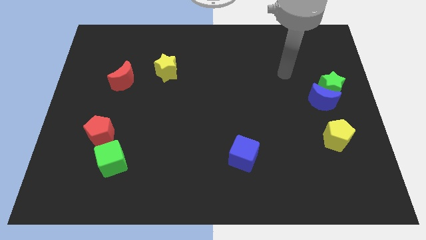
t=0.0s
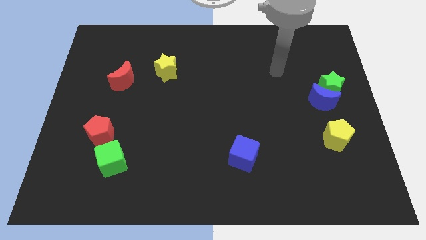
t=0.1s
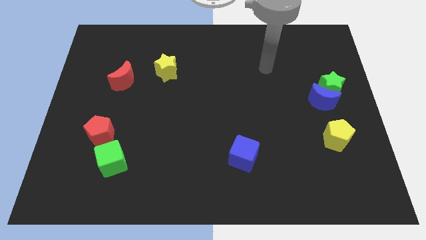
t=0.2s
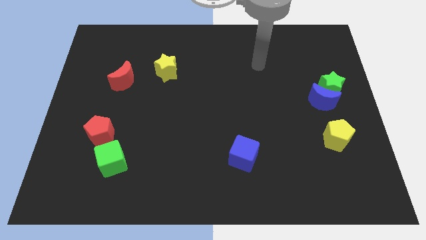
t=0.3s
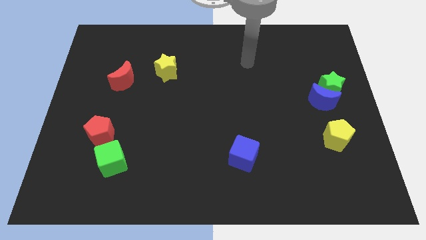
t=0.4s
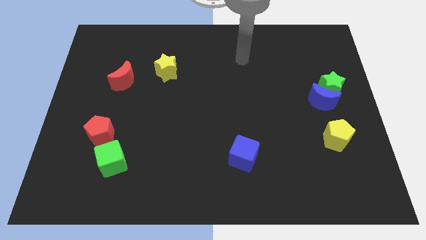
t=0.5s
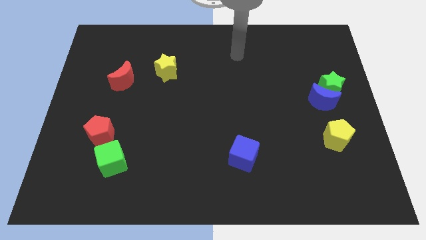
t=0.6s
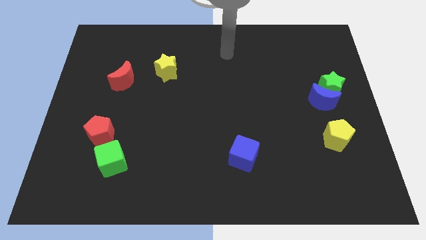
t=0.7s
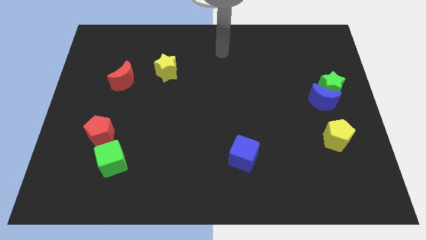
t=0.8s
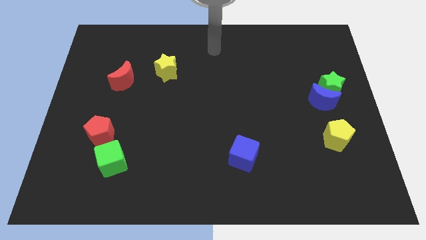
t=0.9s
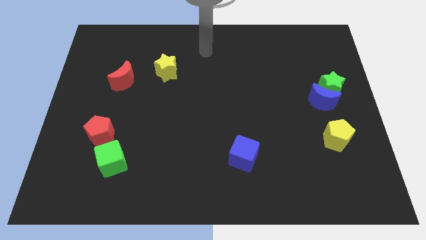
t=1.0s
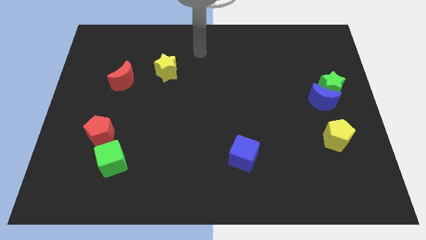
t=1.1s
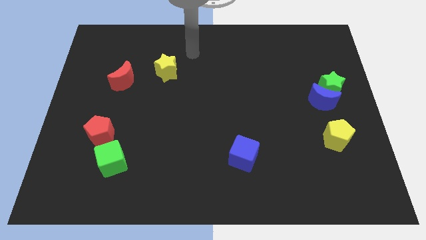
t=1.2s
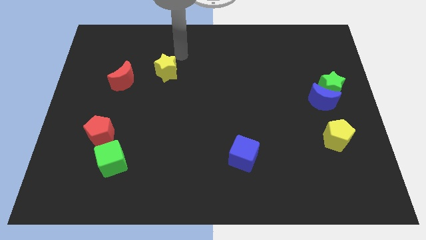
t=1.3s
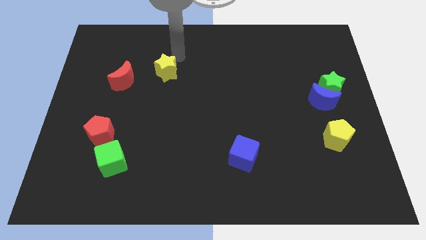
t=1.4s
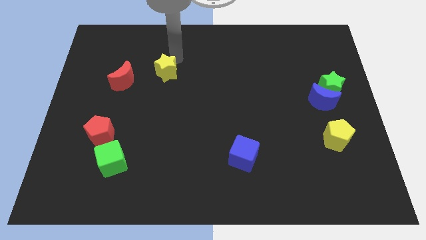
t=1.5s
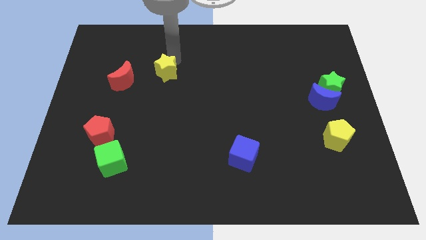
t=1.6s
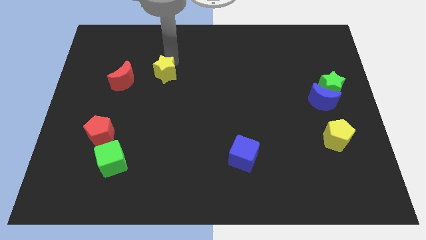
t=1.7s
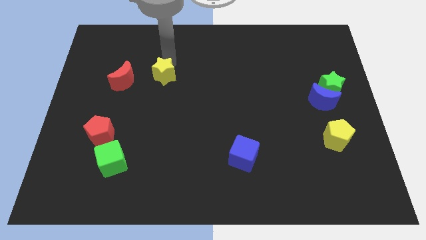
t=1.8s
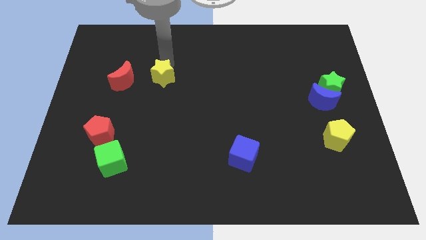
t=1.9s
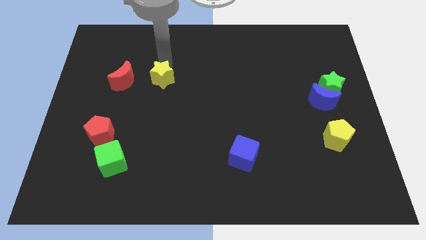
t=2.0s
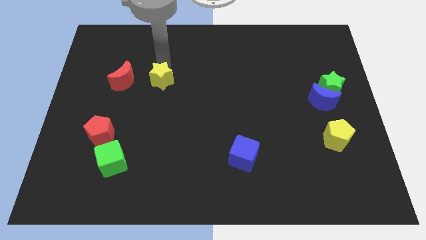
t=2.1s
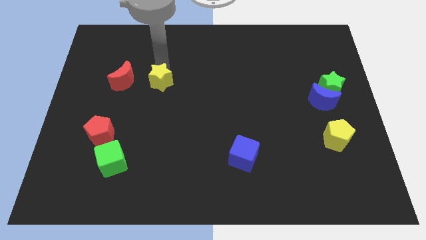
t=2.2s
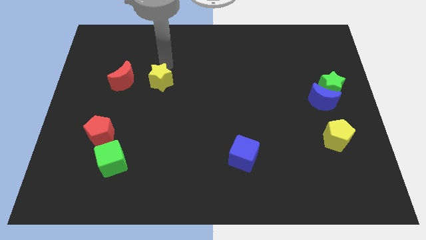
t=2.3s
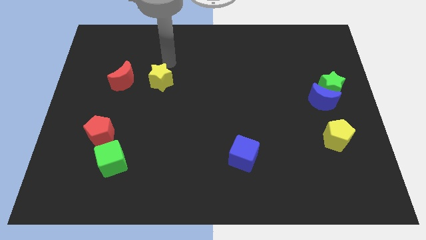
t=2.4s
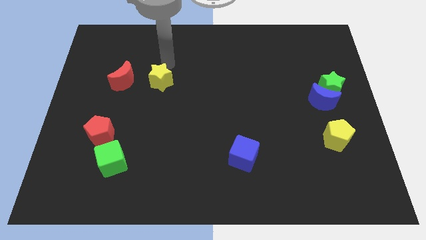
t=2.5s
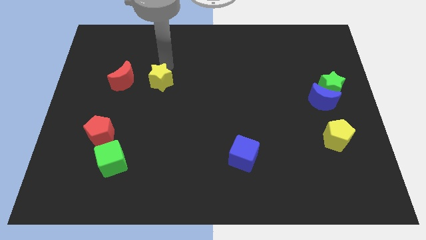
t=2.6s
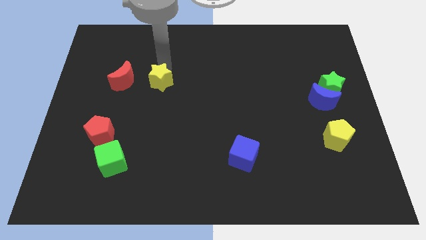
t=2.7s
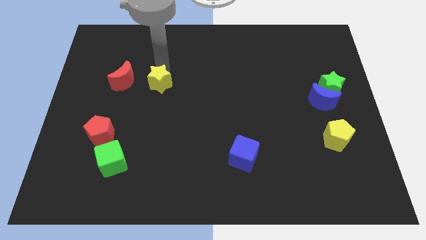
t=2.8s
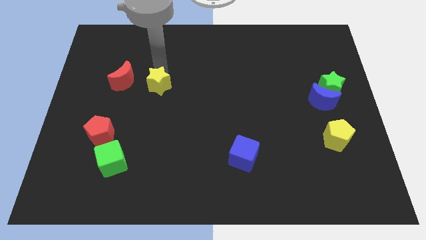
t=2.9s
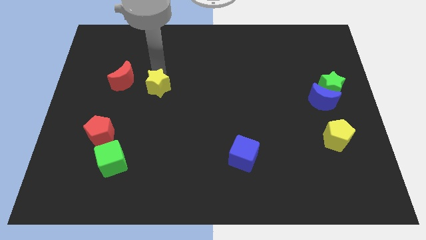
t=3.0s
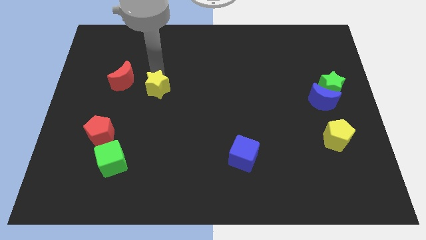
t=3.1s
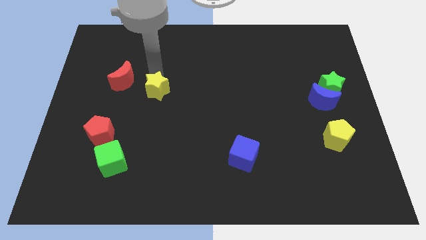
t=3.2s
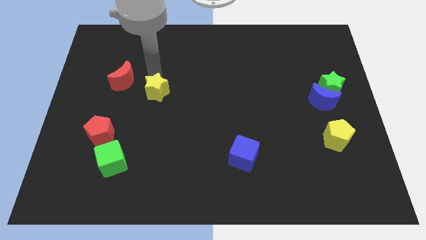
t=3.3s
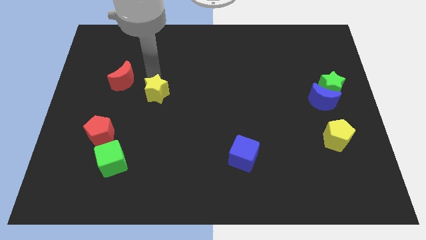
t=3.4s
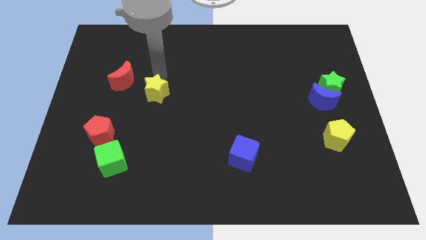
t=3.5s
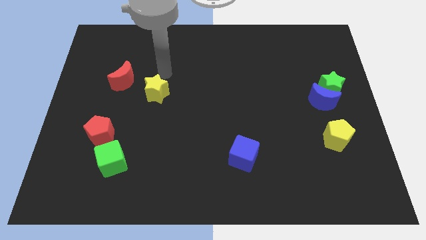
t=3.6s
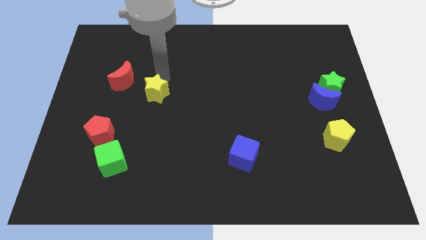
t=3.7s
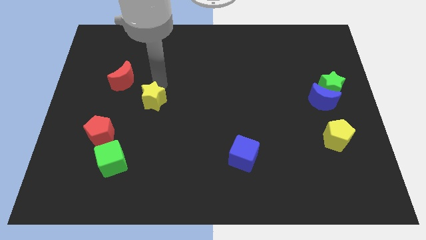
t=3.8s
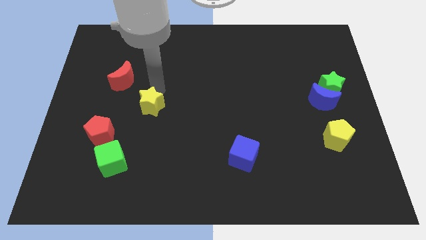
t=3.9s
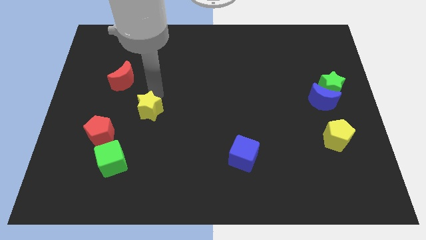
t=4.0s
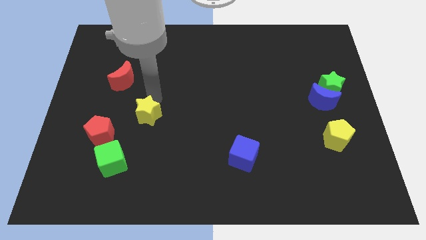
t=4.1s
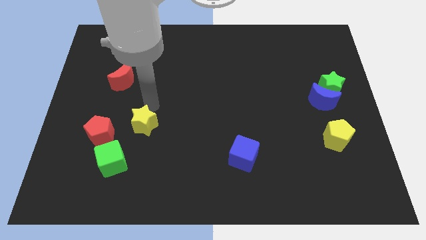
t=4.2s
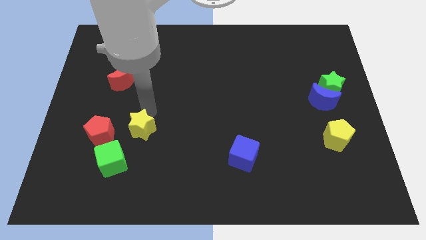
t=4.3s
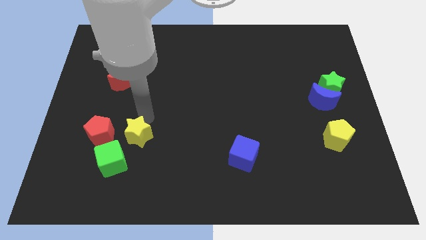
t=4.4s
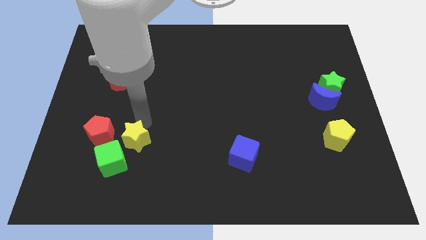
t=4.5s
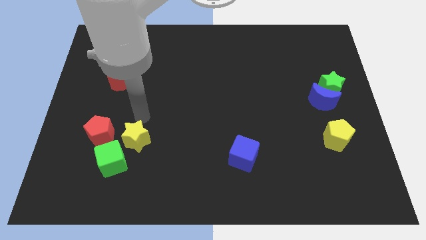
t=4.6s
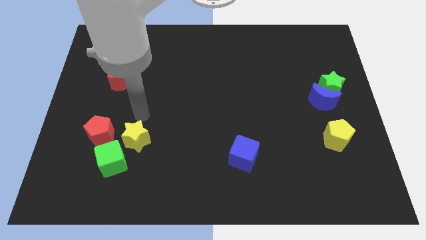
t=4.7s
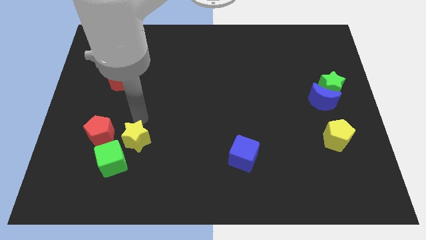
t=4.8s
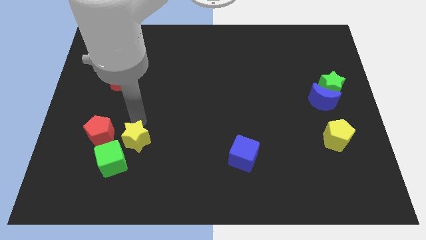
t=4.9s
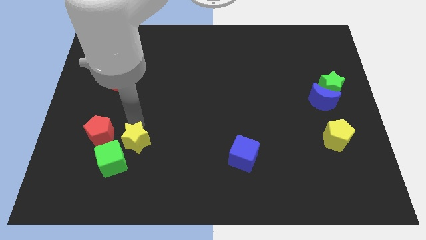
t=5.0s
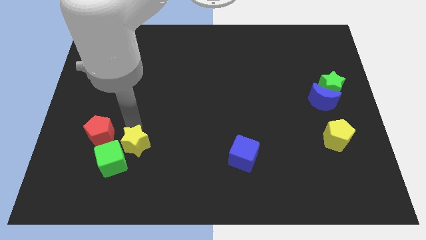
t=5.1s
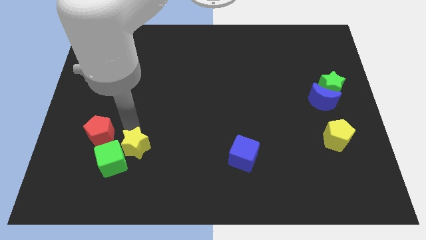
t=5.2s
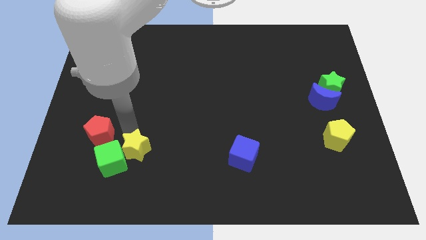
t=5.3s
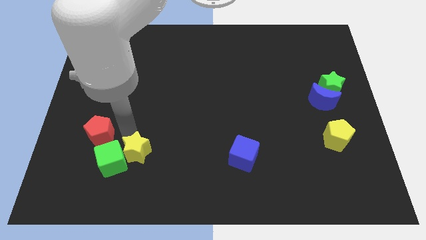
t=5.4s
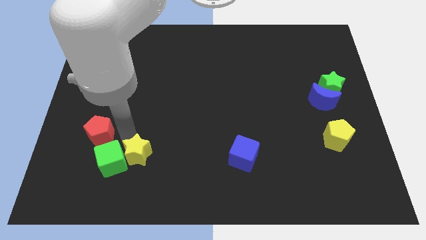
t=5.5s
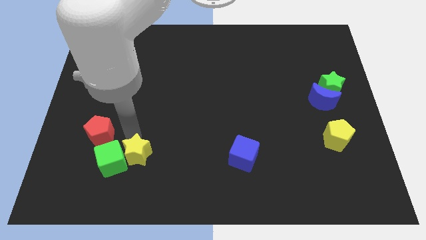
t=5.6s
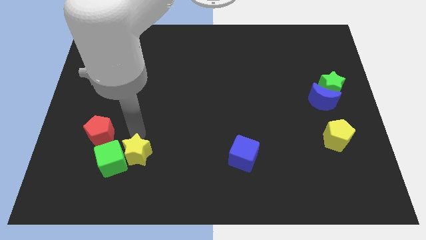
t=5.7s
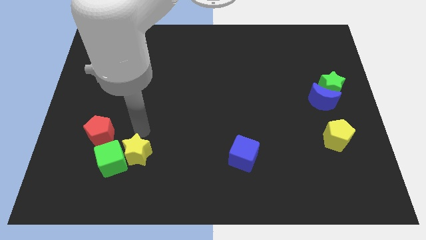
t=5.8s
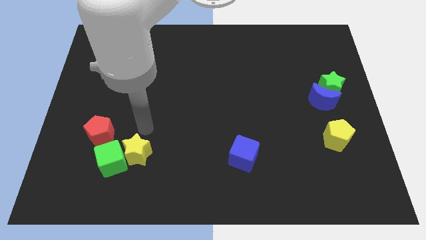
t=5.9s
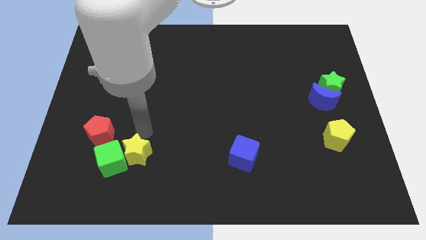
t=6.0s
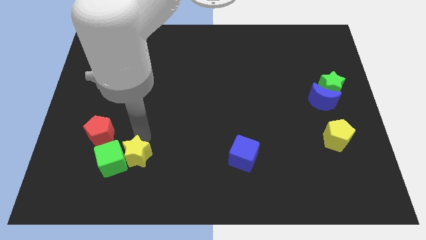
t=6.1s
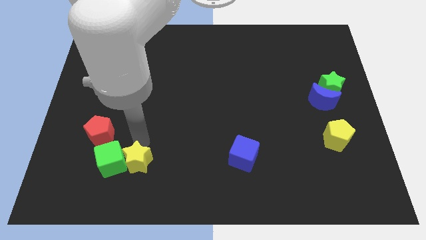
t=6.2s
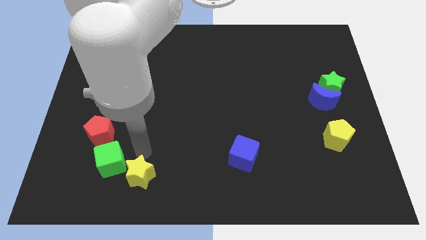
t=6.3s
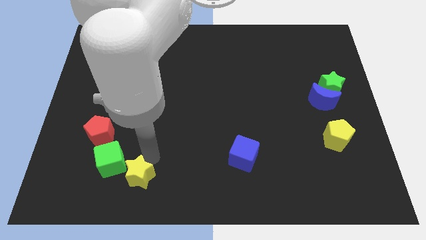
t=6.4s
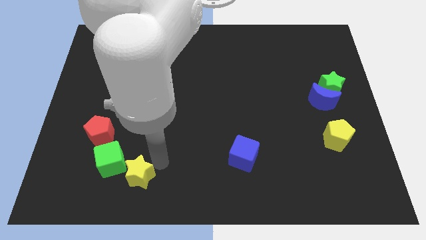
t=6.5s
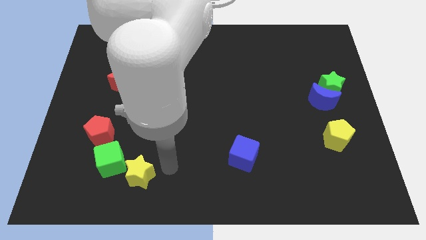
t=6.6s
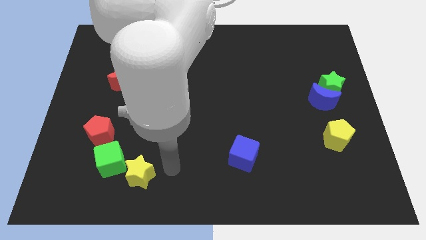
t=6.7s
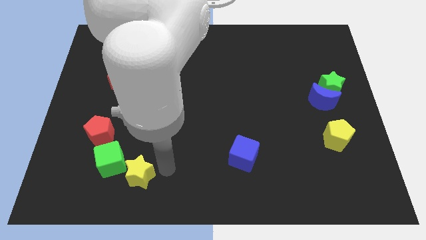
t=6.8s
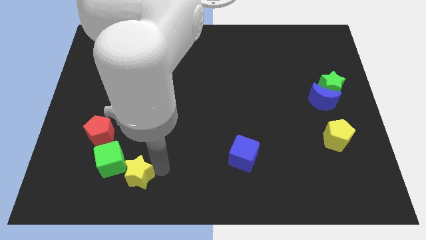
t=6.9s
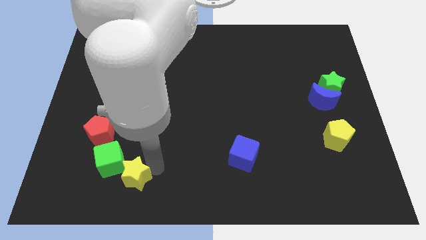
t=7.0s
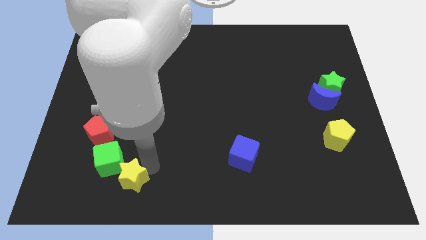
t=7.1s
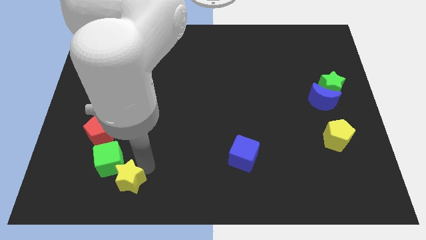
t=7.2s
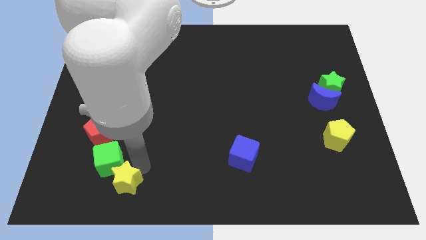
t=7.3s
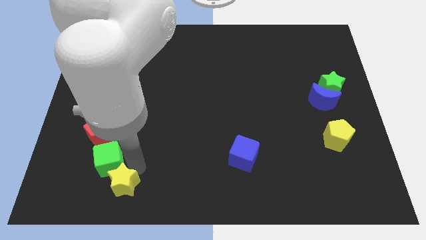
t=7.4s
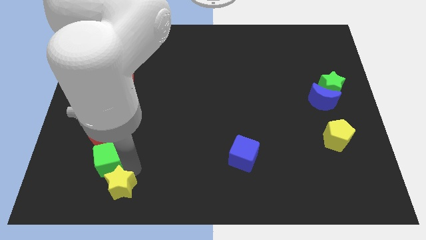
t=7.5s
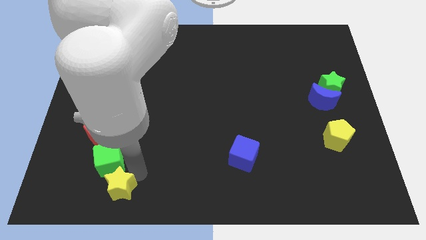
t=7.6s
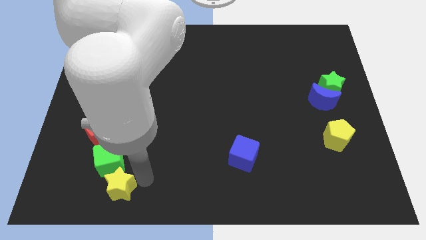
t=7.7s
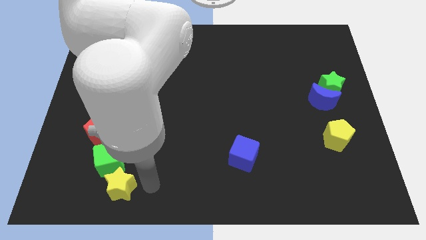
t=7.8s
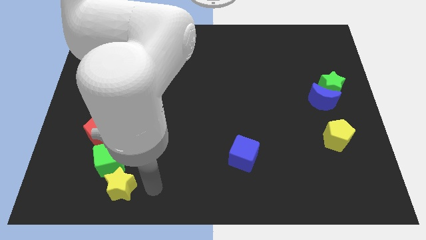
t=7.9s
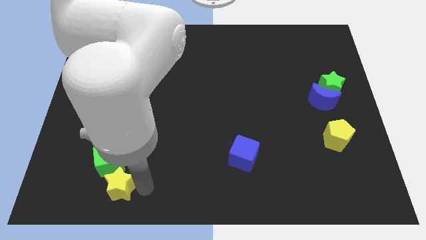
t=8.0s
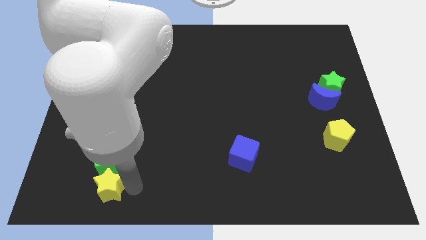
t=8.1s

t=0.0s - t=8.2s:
move the yellow star diagonally down and to the left of the green cube
